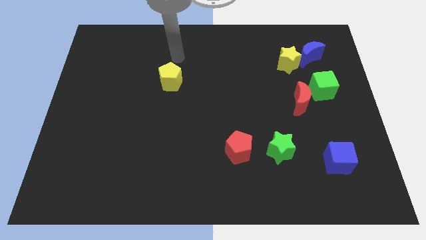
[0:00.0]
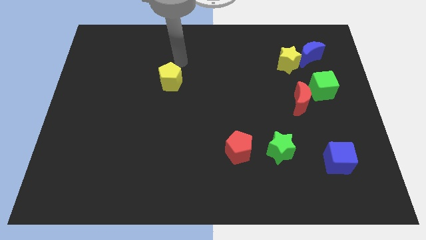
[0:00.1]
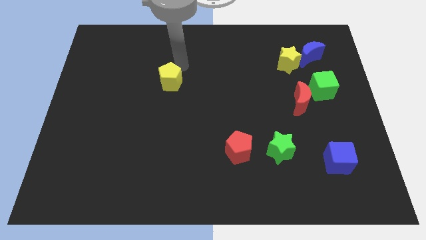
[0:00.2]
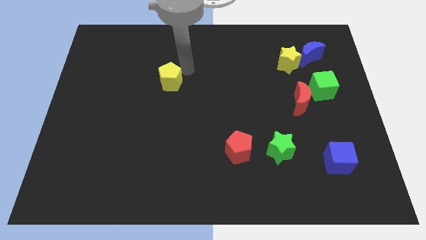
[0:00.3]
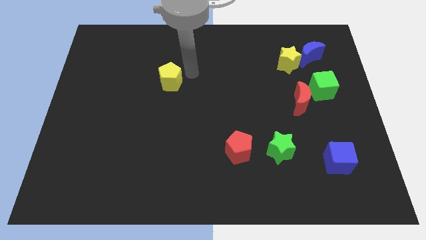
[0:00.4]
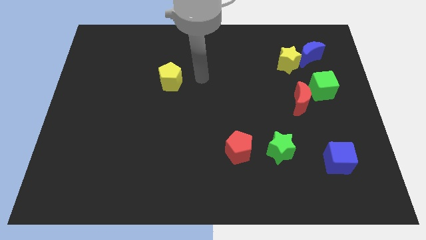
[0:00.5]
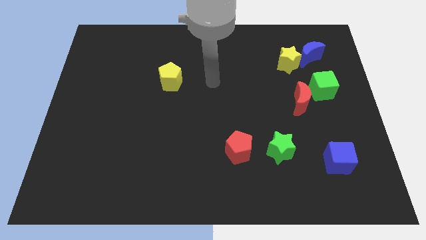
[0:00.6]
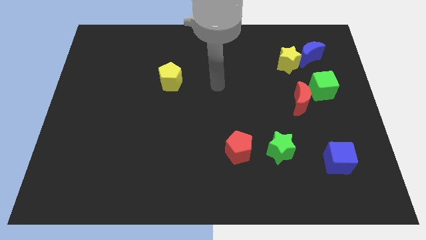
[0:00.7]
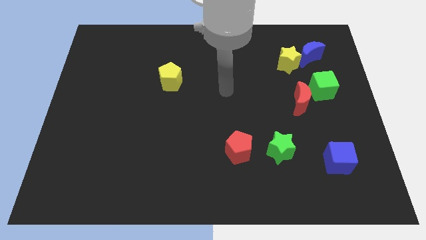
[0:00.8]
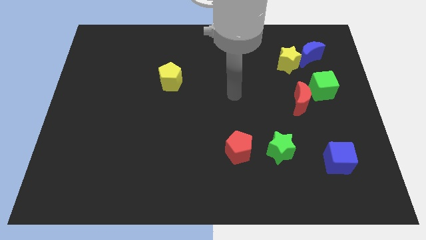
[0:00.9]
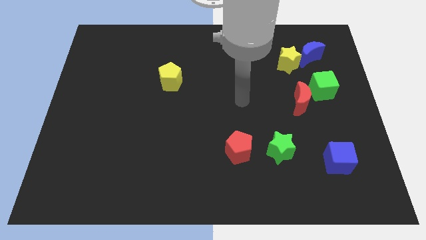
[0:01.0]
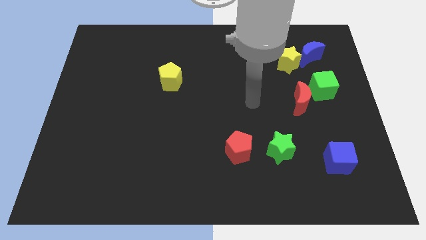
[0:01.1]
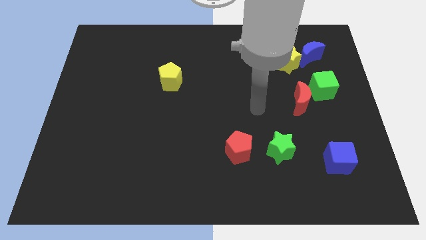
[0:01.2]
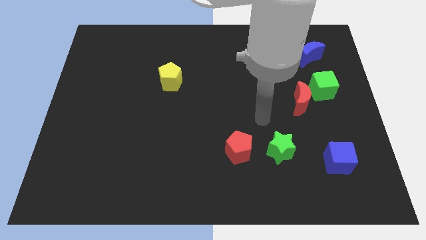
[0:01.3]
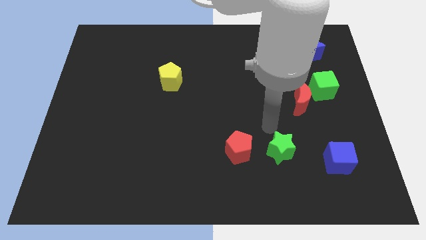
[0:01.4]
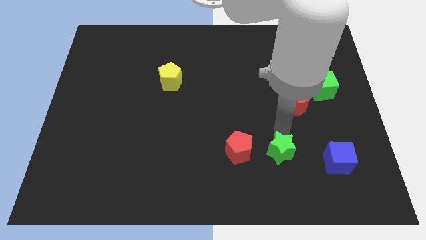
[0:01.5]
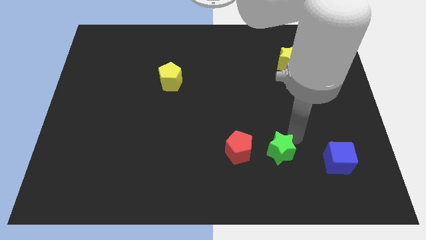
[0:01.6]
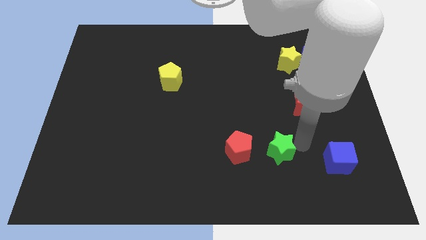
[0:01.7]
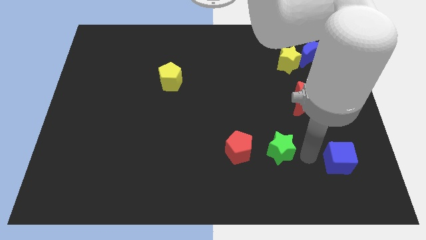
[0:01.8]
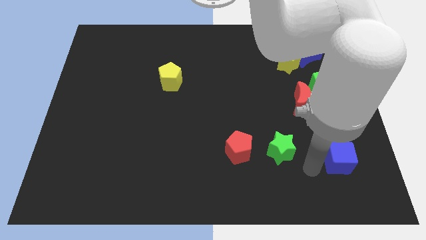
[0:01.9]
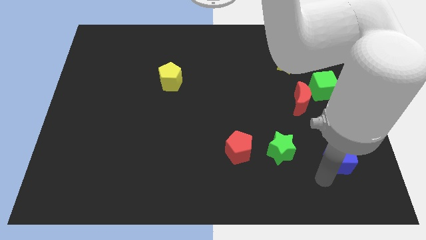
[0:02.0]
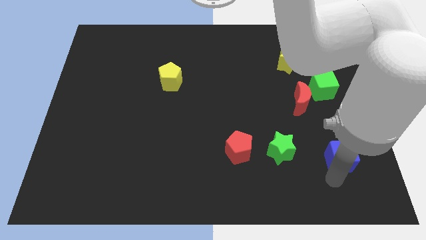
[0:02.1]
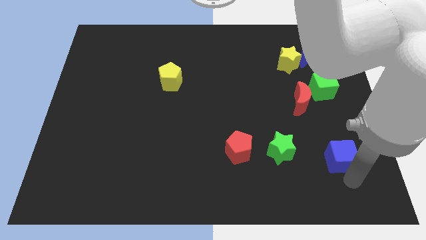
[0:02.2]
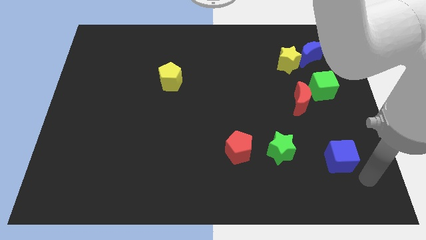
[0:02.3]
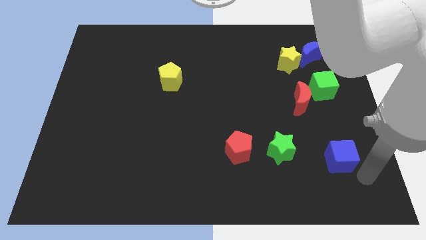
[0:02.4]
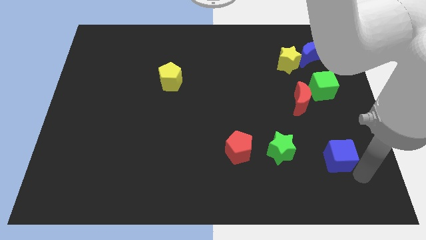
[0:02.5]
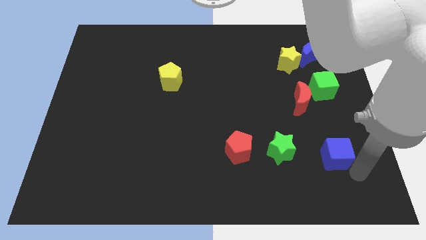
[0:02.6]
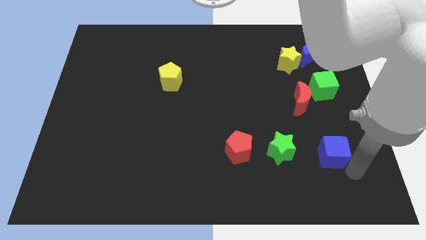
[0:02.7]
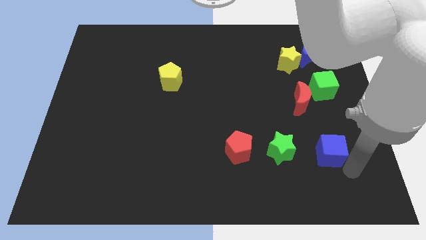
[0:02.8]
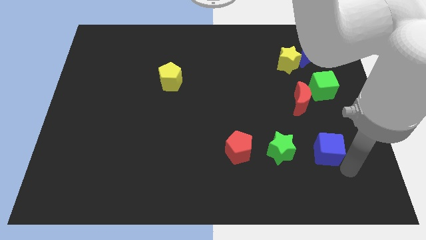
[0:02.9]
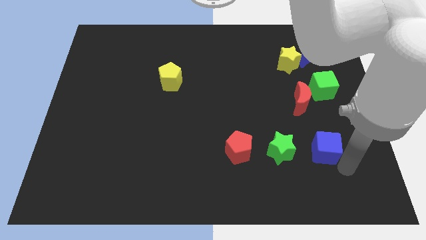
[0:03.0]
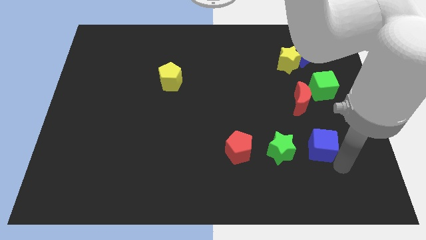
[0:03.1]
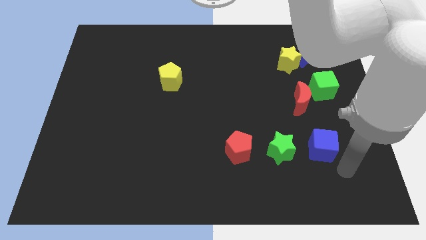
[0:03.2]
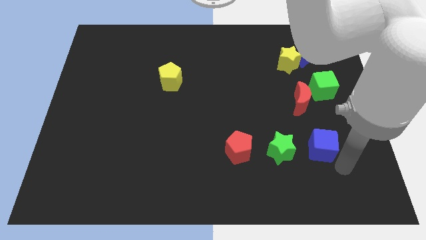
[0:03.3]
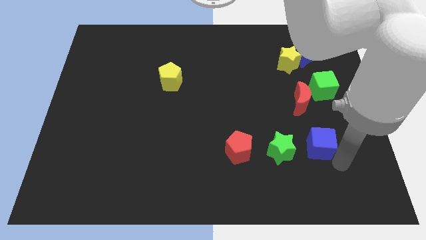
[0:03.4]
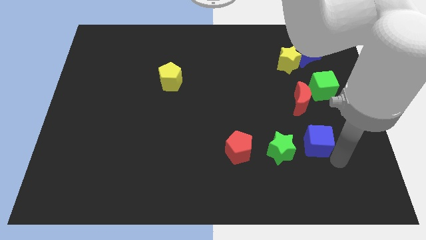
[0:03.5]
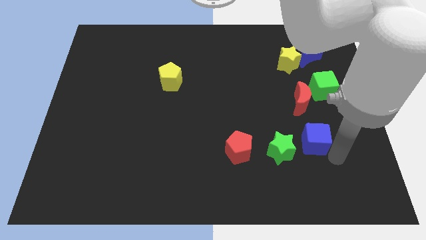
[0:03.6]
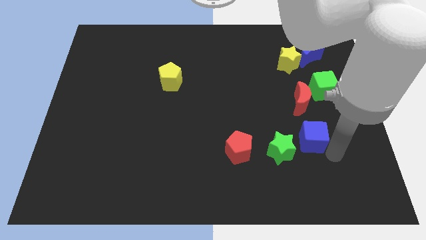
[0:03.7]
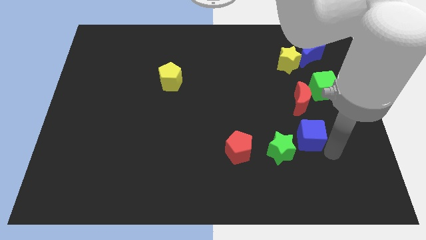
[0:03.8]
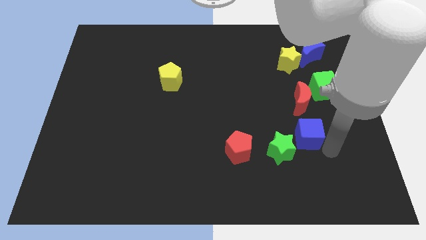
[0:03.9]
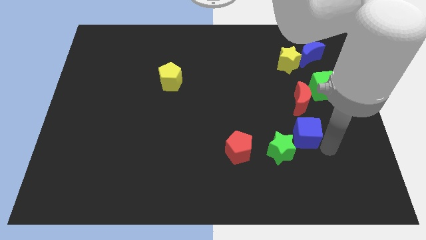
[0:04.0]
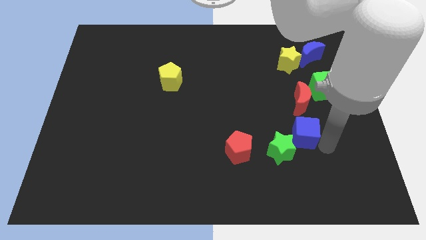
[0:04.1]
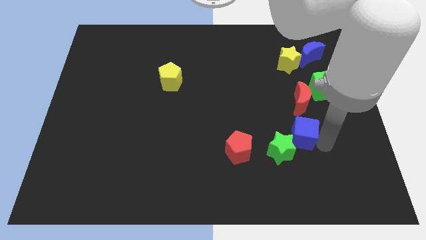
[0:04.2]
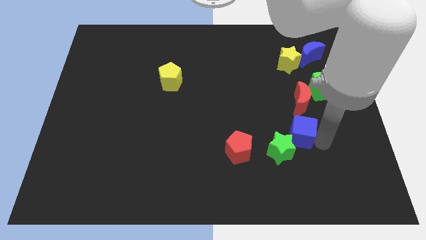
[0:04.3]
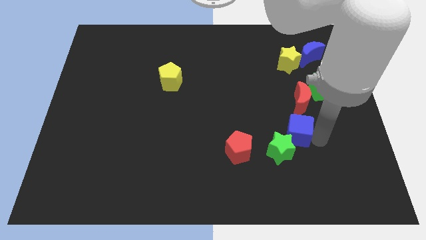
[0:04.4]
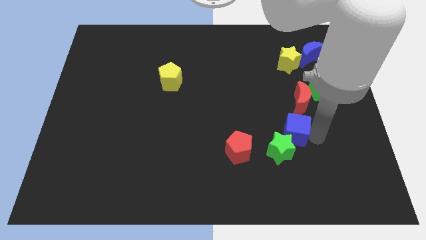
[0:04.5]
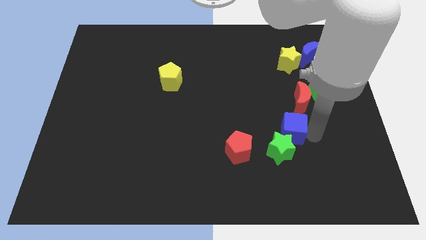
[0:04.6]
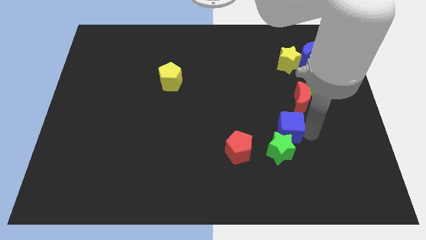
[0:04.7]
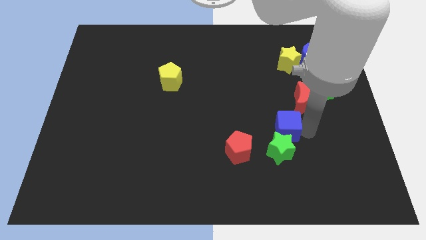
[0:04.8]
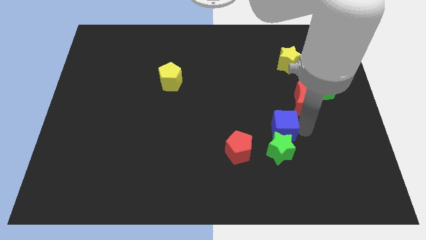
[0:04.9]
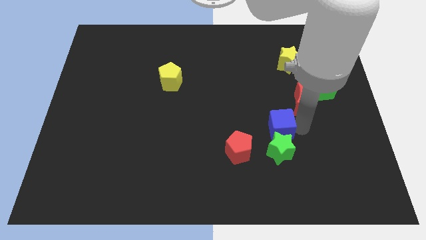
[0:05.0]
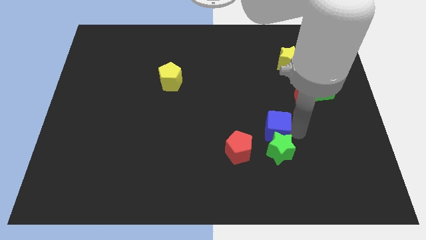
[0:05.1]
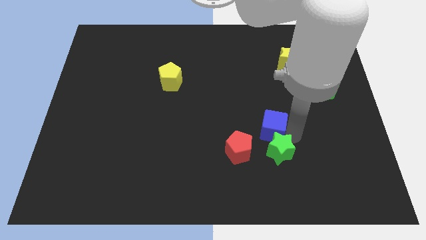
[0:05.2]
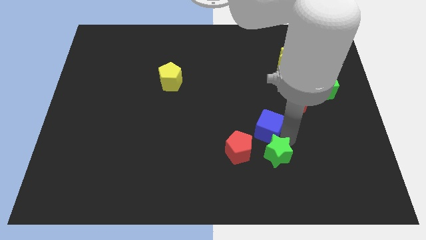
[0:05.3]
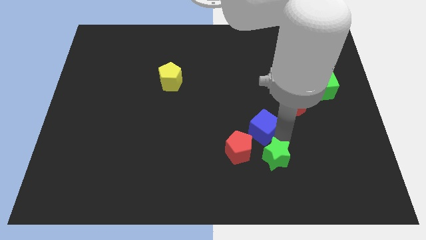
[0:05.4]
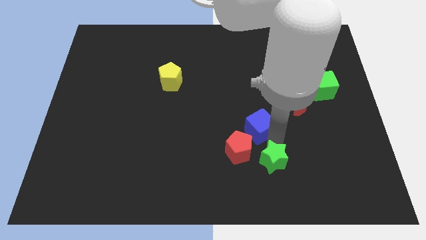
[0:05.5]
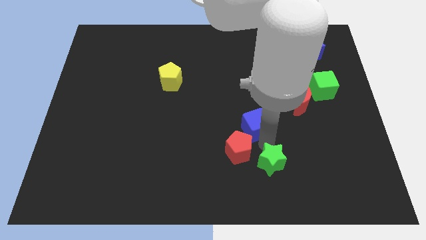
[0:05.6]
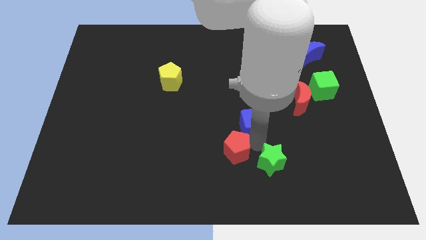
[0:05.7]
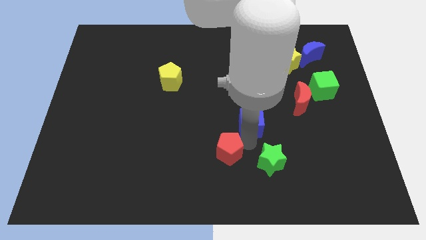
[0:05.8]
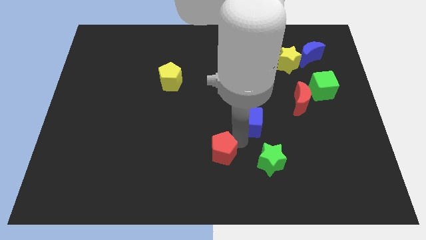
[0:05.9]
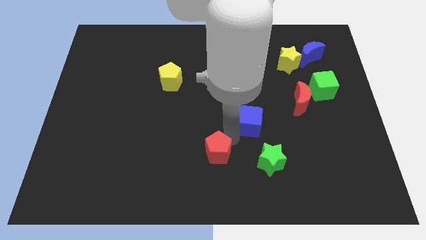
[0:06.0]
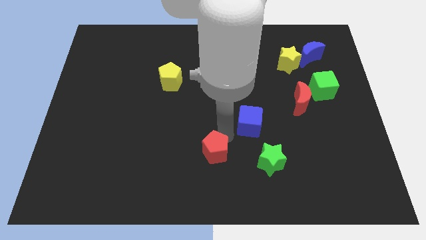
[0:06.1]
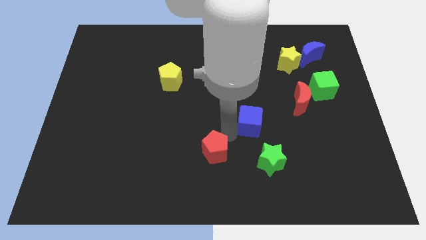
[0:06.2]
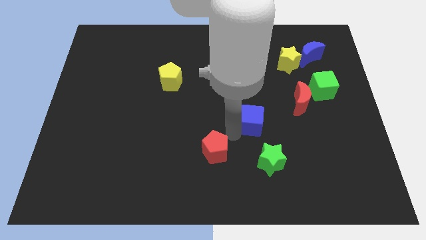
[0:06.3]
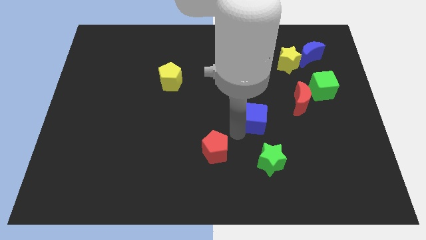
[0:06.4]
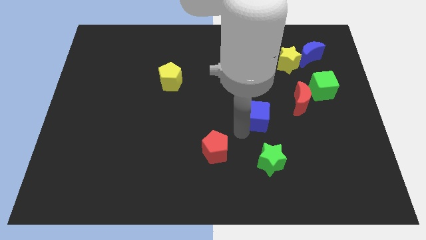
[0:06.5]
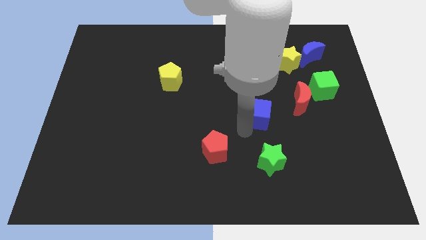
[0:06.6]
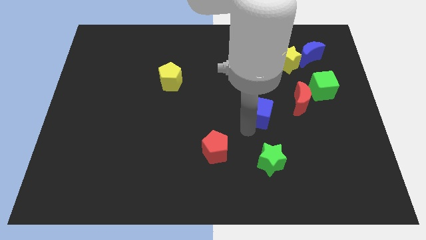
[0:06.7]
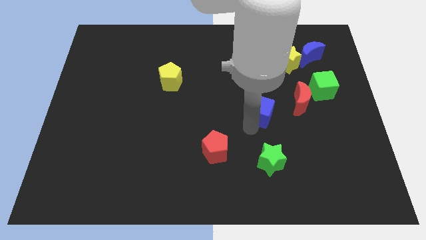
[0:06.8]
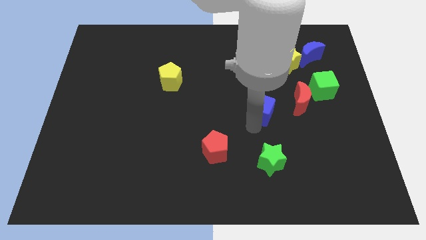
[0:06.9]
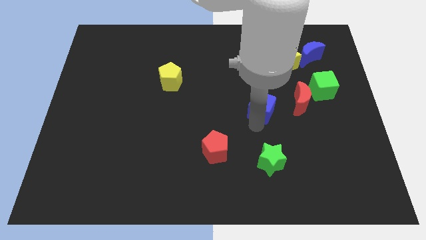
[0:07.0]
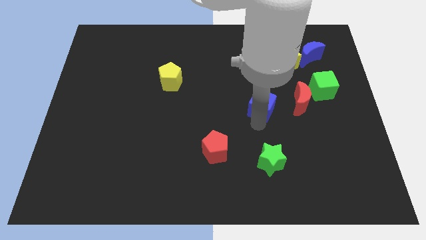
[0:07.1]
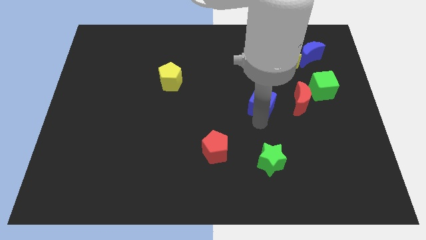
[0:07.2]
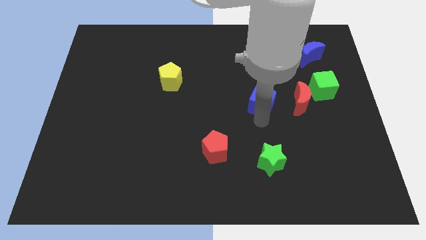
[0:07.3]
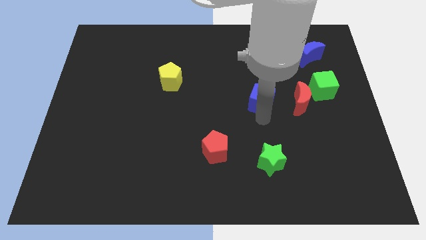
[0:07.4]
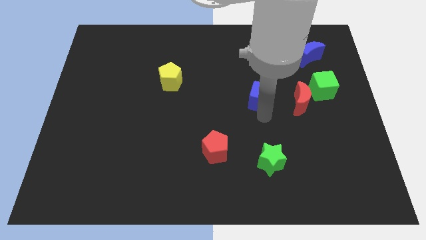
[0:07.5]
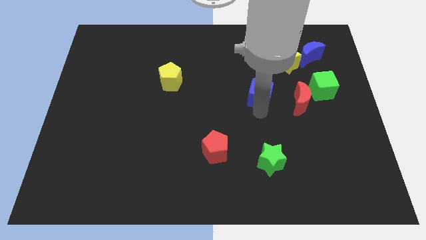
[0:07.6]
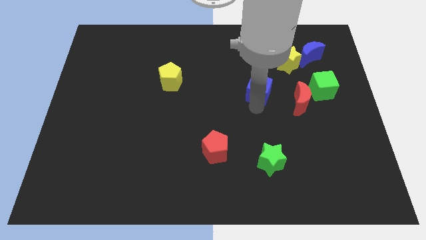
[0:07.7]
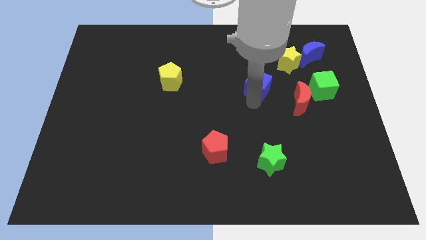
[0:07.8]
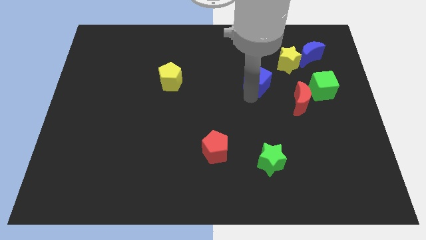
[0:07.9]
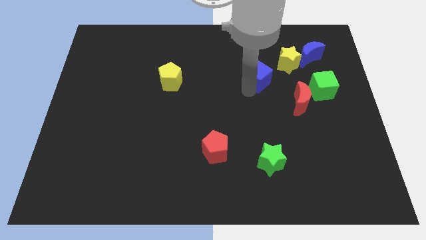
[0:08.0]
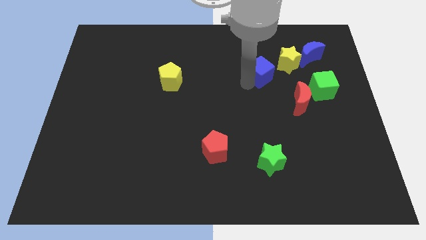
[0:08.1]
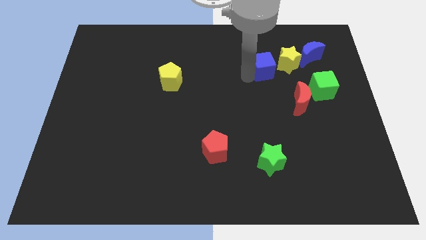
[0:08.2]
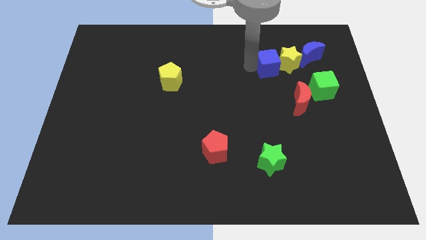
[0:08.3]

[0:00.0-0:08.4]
put the blue cube next to the yellow star
